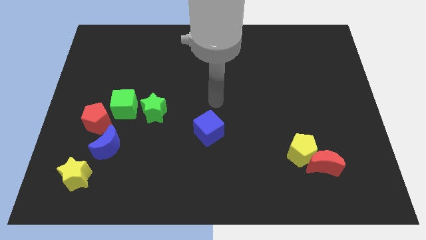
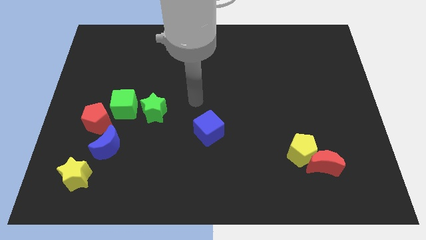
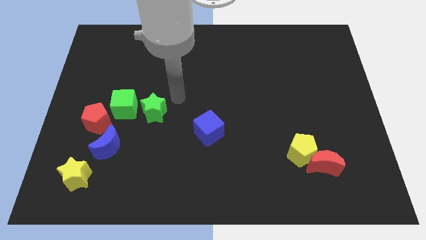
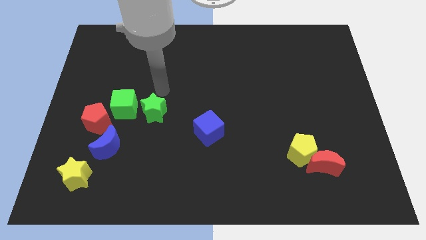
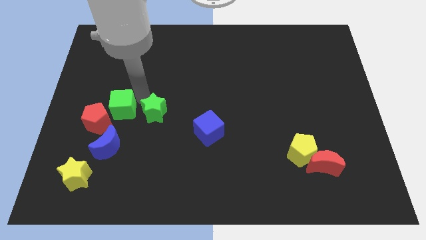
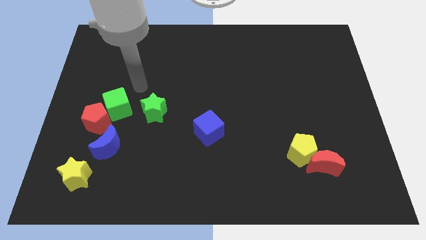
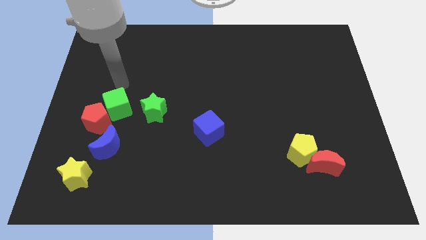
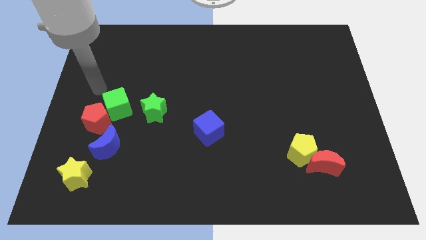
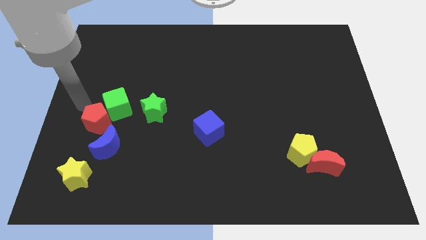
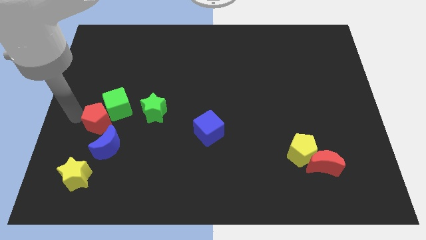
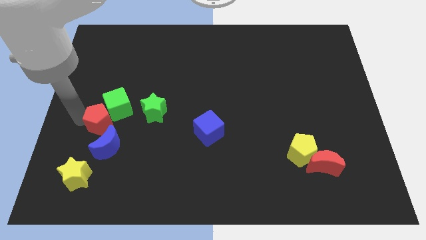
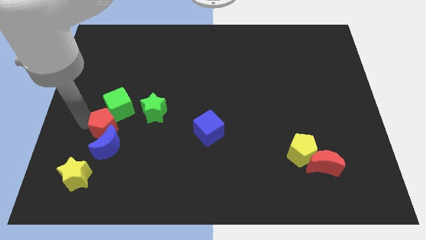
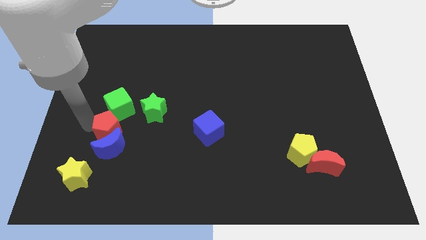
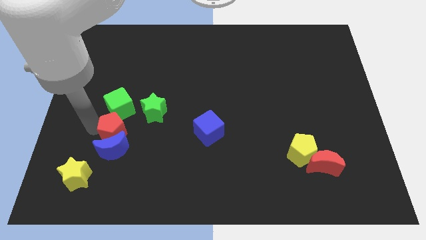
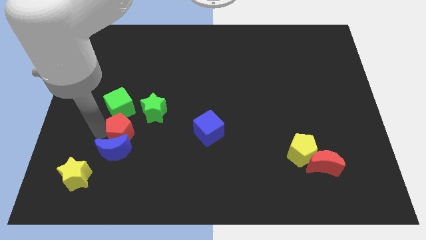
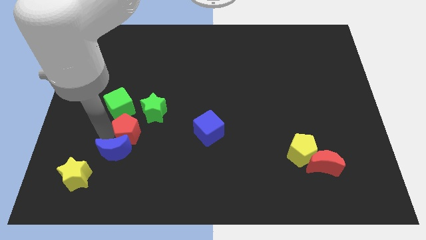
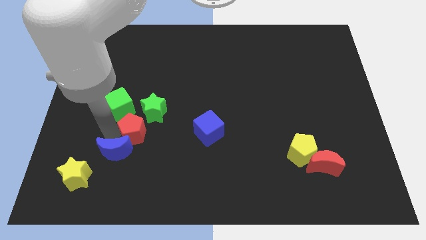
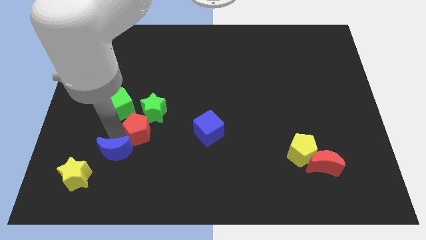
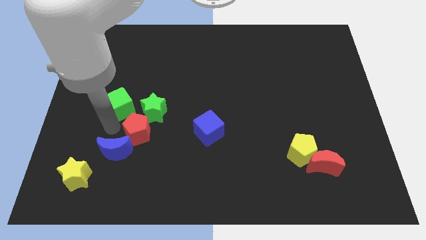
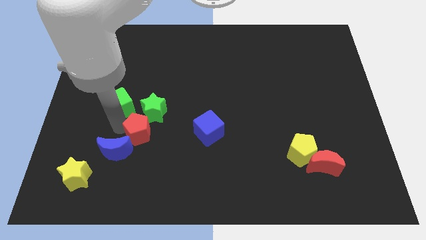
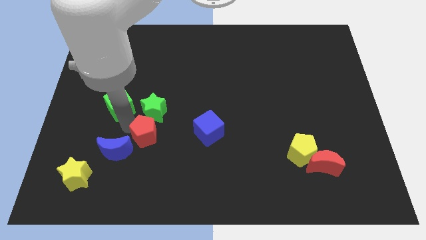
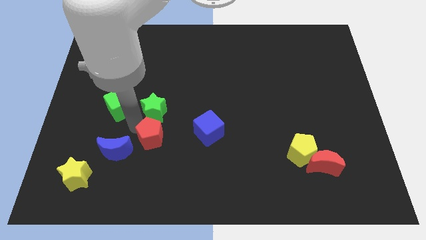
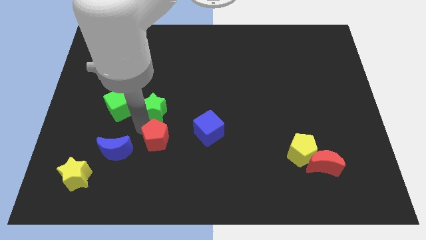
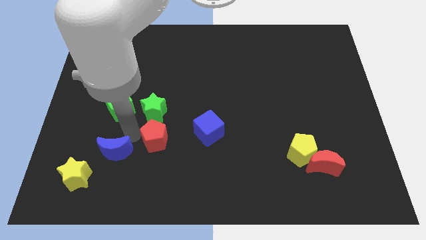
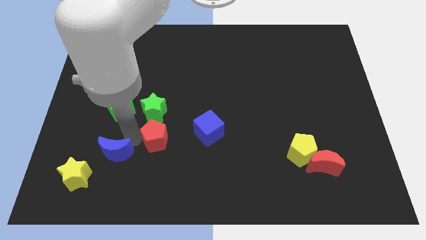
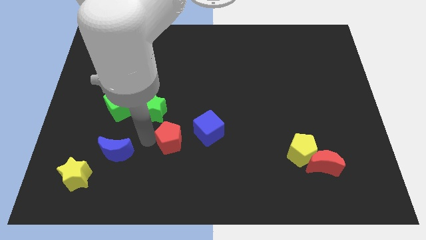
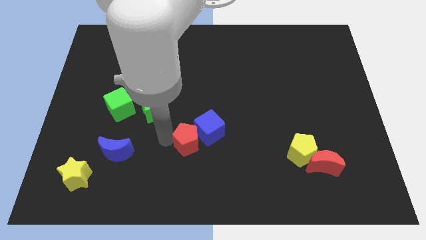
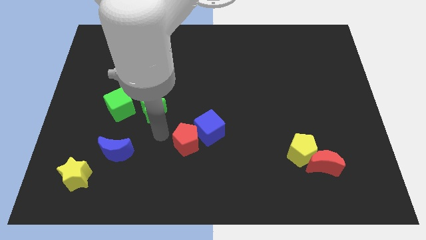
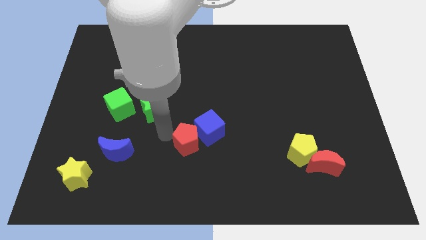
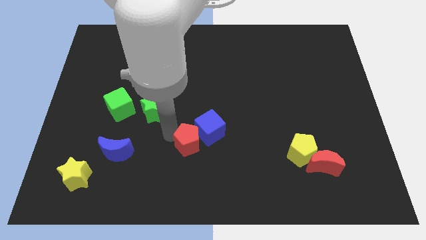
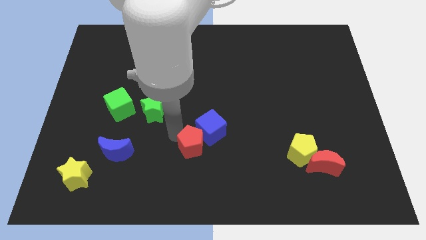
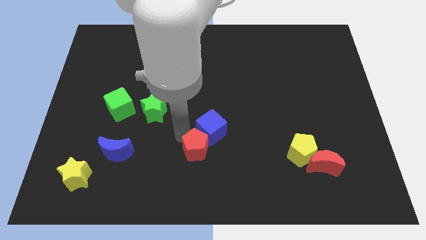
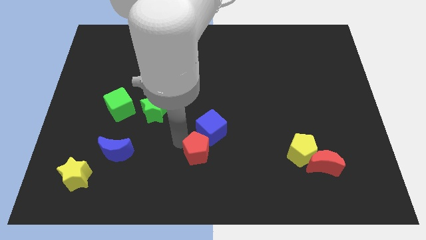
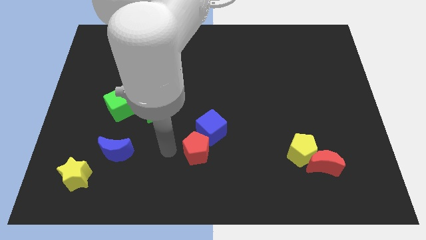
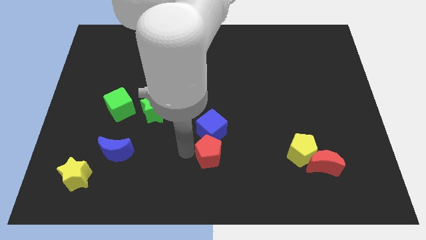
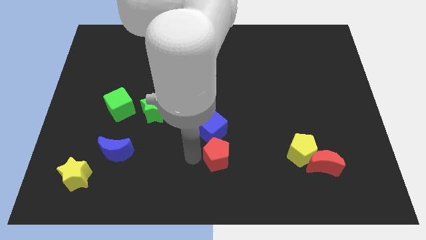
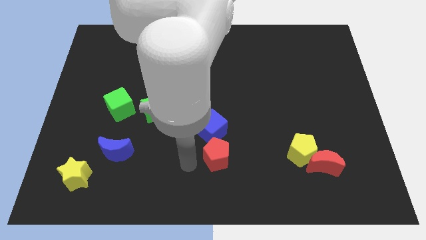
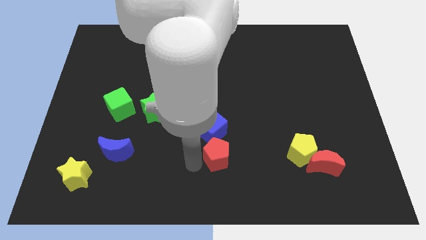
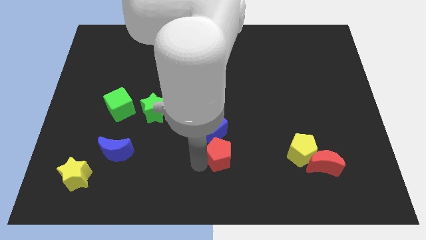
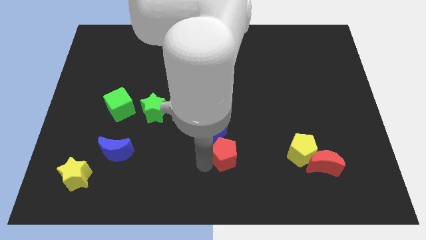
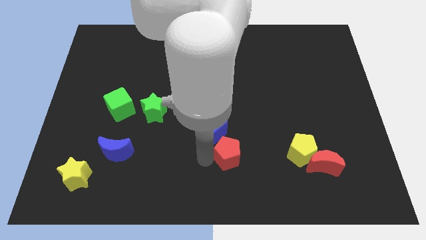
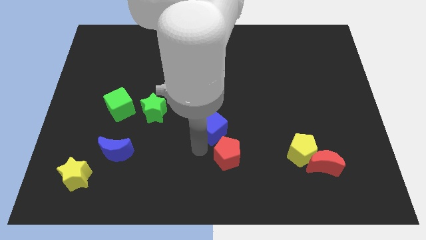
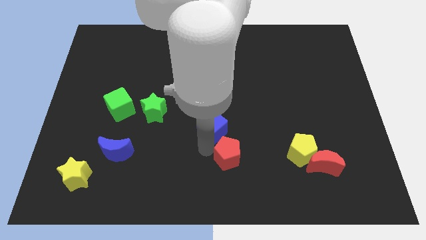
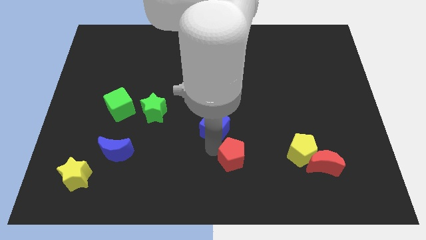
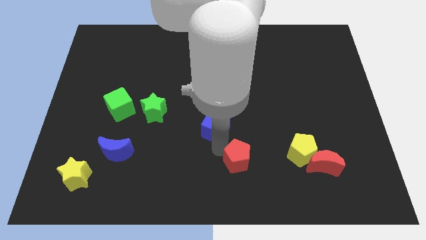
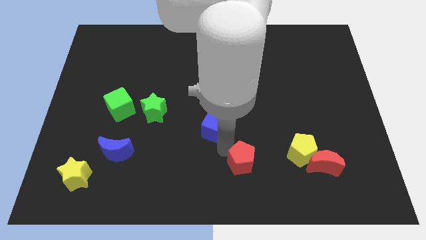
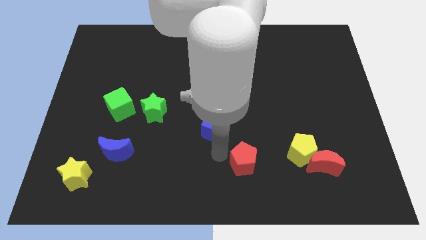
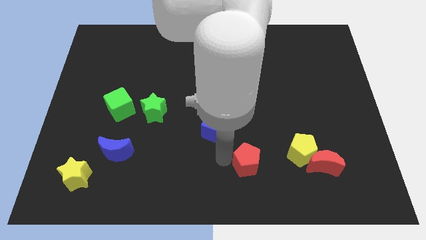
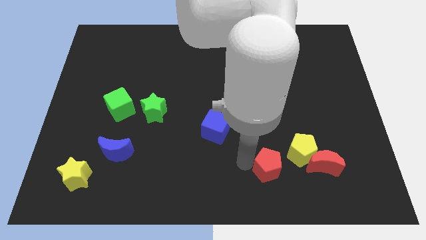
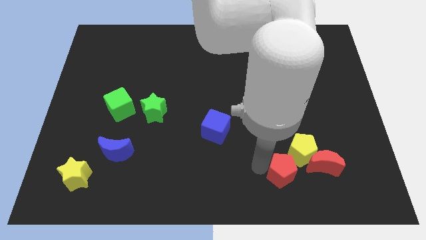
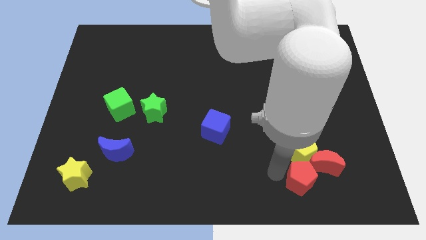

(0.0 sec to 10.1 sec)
put the red pentagon close to the red moon

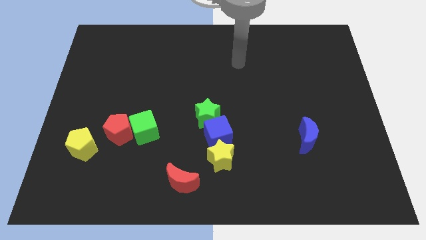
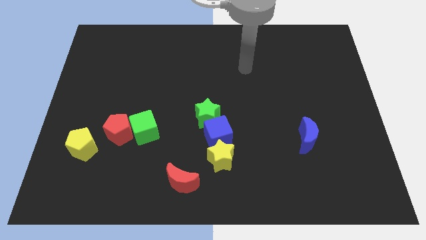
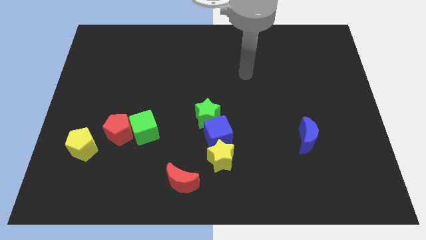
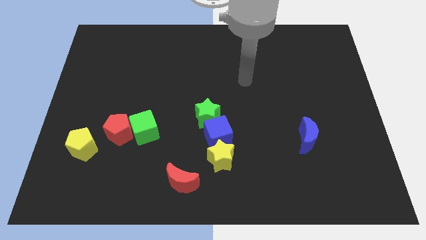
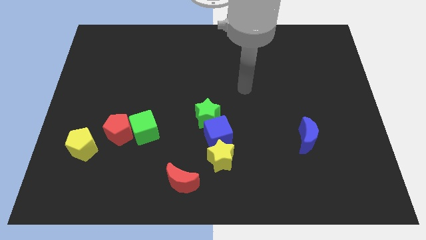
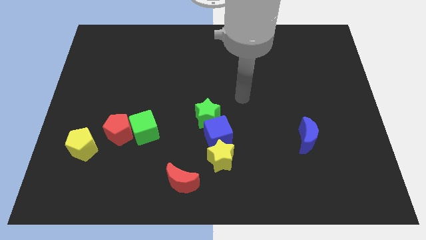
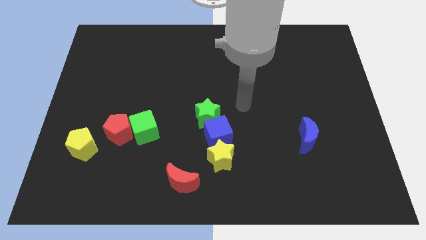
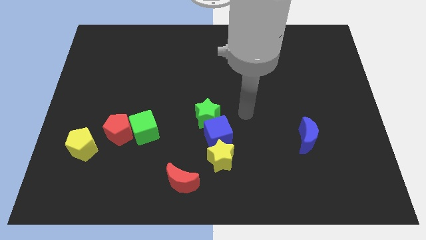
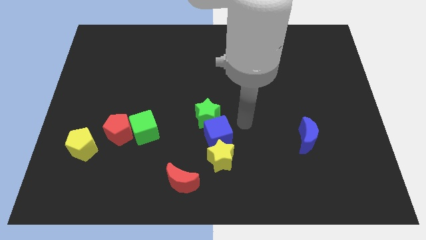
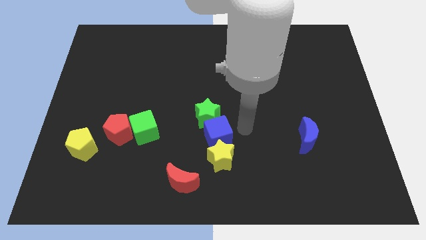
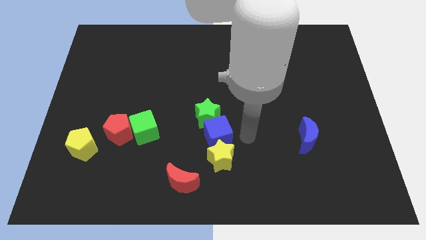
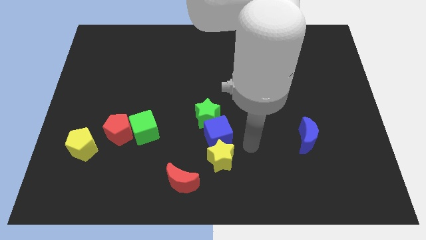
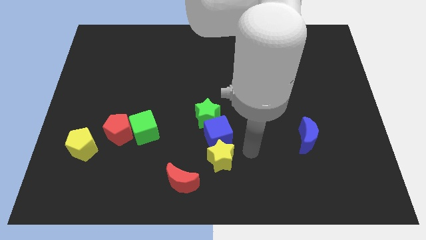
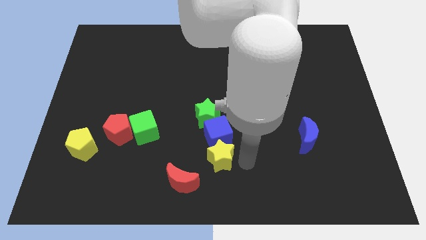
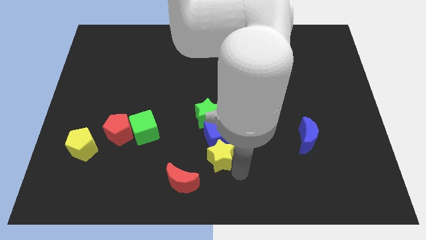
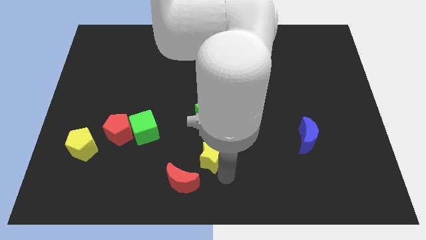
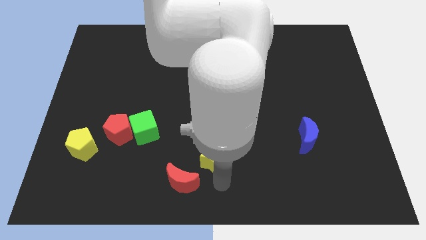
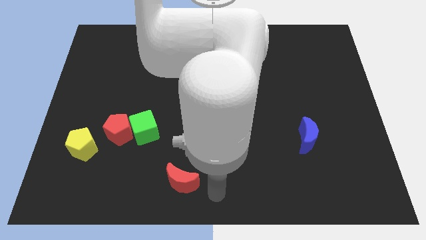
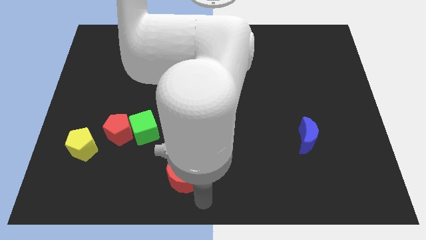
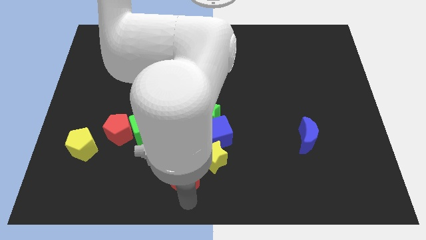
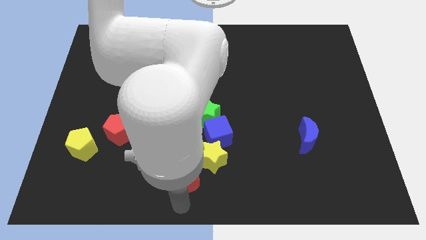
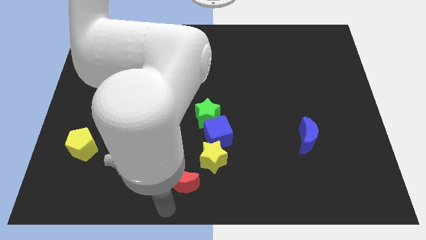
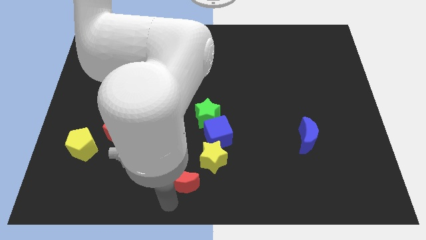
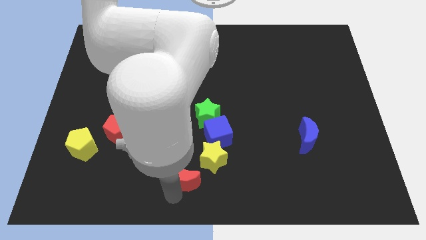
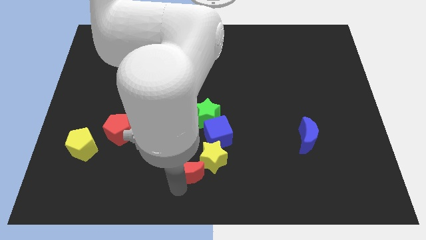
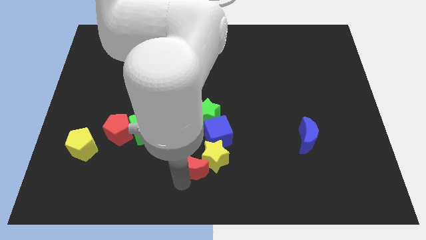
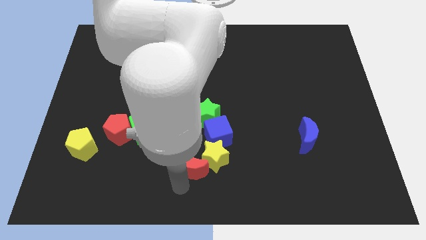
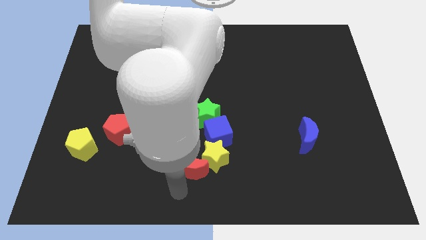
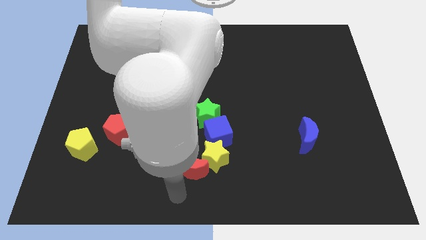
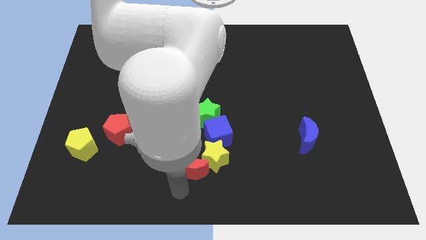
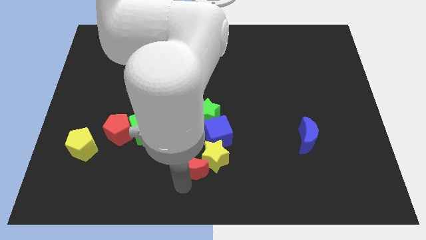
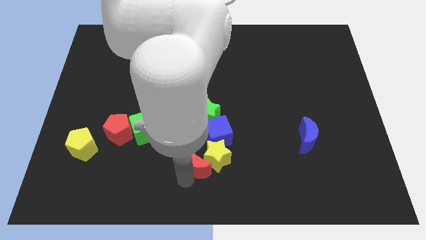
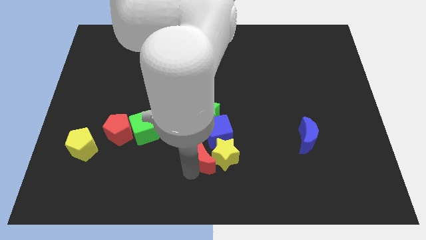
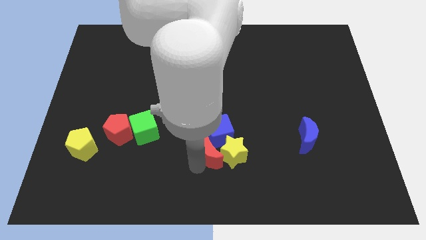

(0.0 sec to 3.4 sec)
push the red moon next to the blue cube
